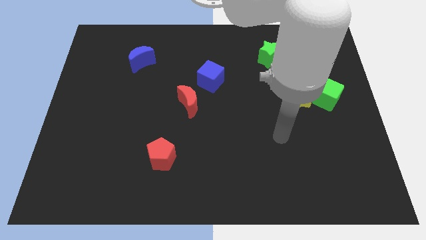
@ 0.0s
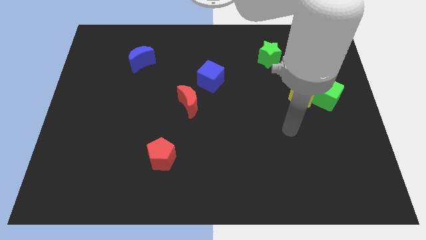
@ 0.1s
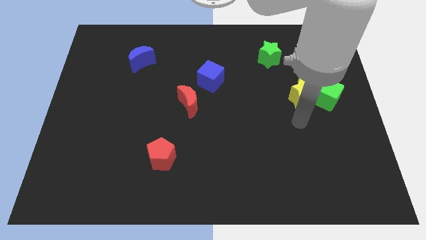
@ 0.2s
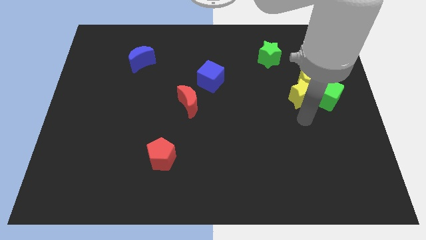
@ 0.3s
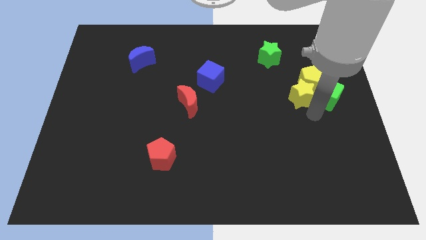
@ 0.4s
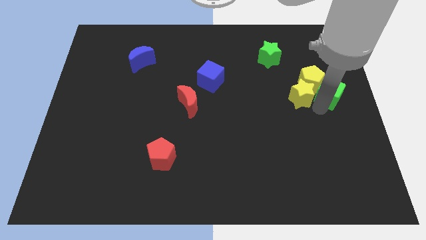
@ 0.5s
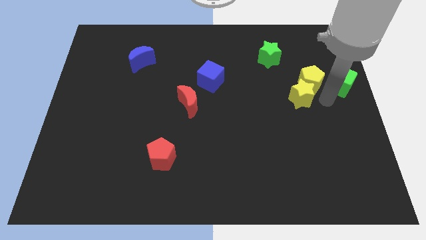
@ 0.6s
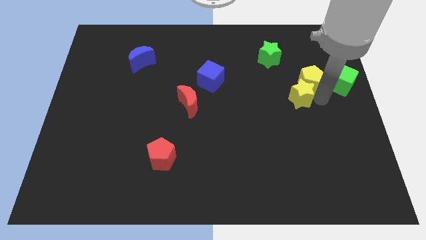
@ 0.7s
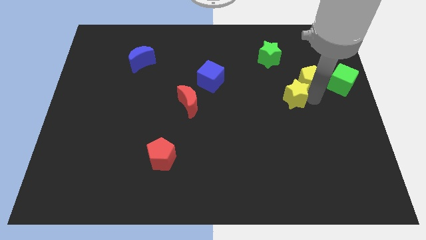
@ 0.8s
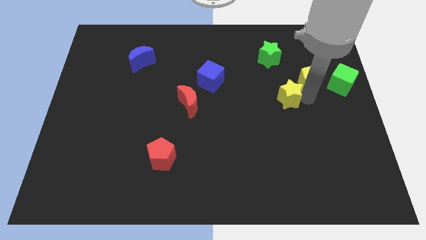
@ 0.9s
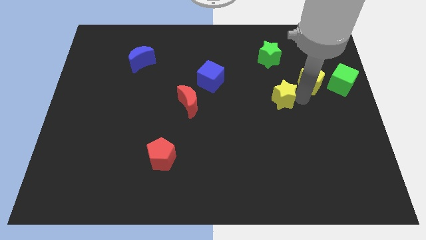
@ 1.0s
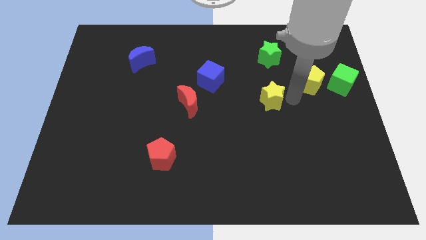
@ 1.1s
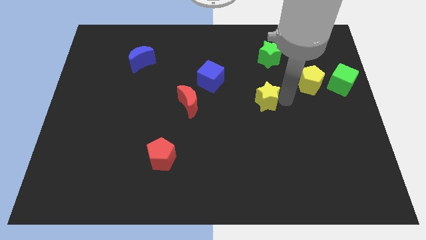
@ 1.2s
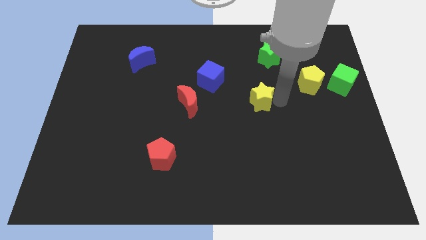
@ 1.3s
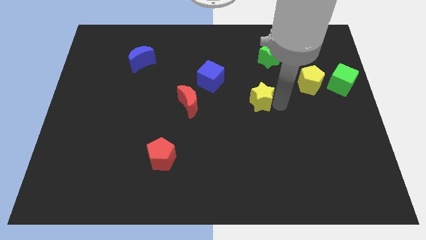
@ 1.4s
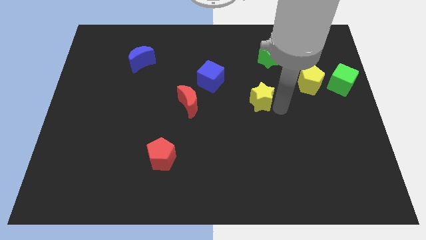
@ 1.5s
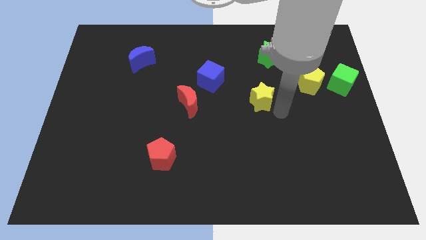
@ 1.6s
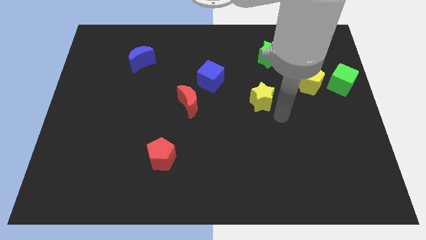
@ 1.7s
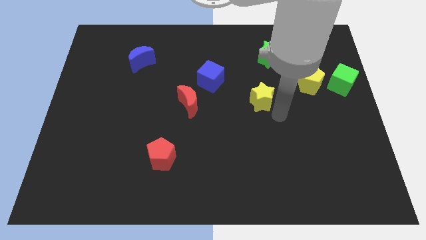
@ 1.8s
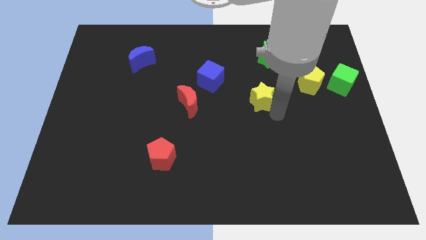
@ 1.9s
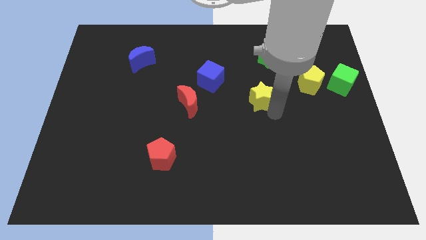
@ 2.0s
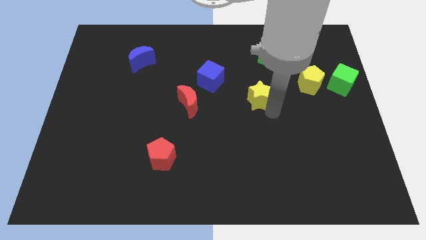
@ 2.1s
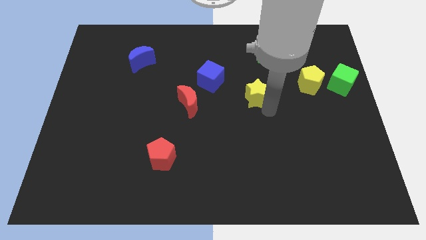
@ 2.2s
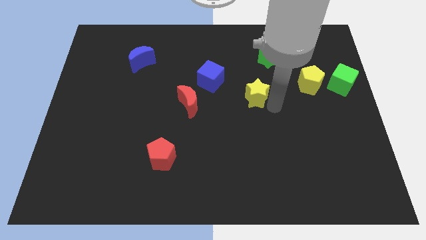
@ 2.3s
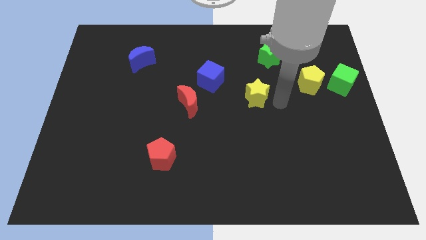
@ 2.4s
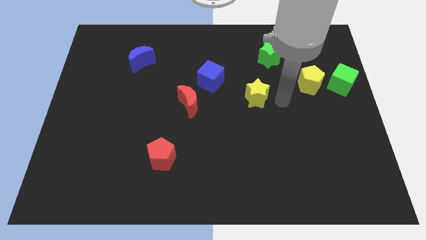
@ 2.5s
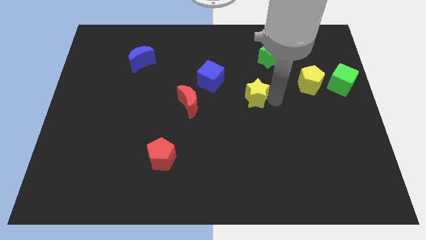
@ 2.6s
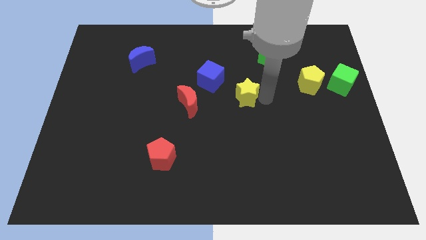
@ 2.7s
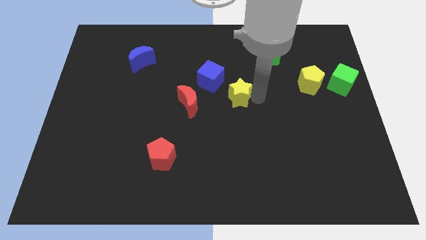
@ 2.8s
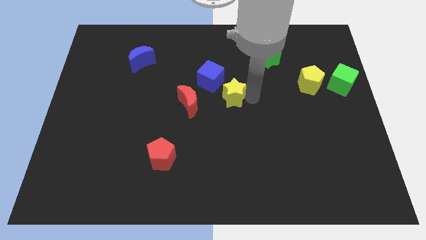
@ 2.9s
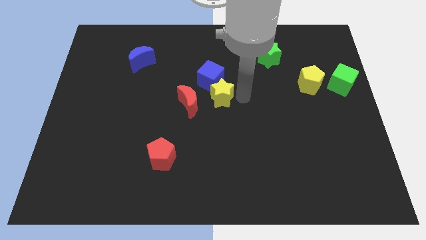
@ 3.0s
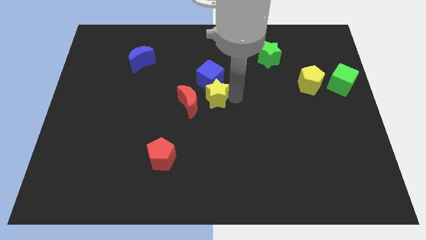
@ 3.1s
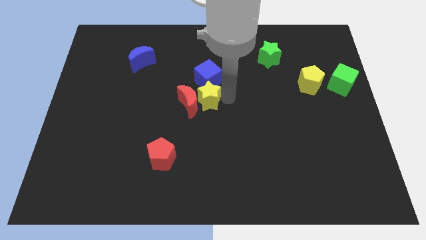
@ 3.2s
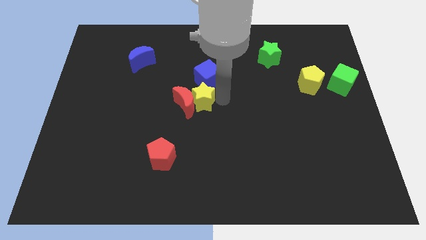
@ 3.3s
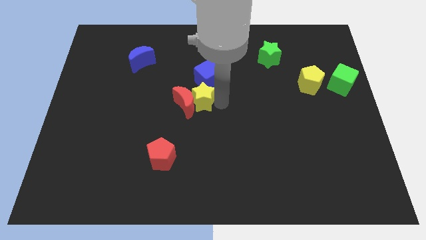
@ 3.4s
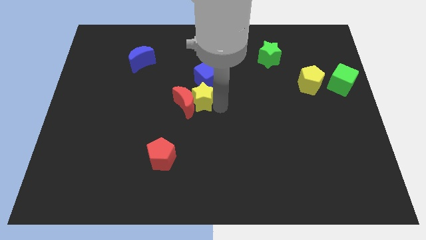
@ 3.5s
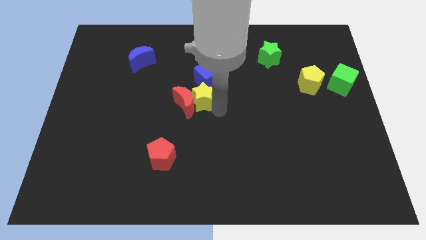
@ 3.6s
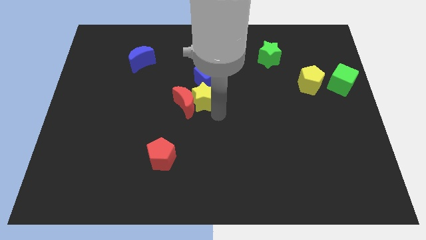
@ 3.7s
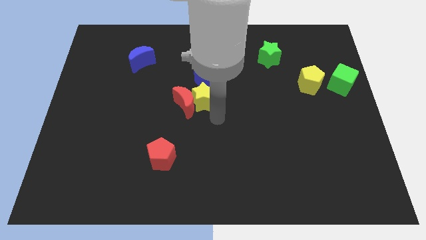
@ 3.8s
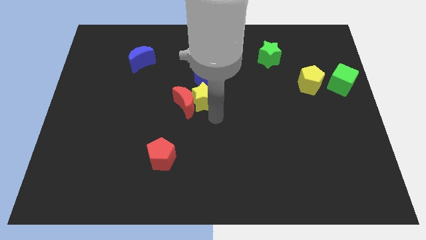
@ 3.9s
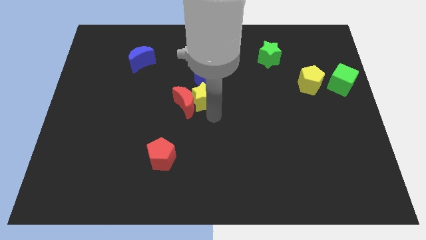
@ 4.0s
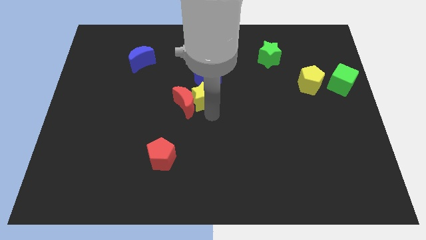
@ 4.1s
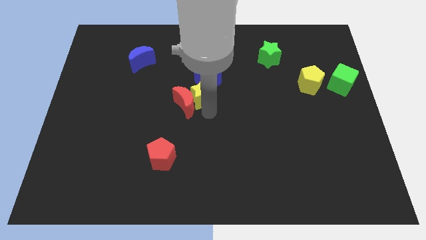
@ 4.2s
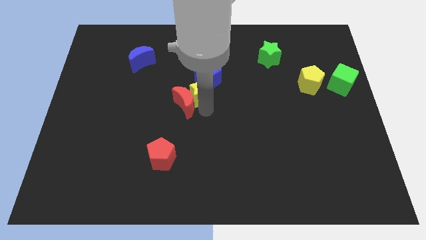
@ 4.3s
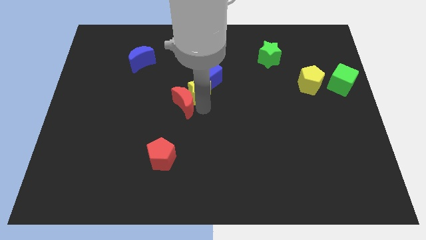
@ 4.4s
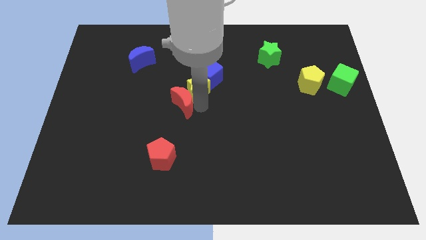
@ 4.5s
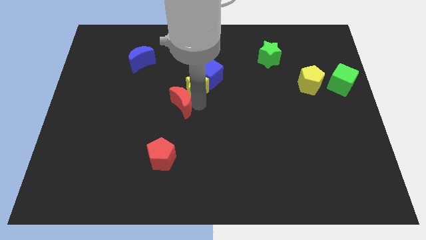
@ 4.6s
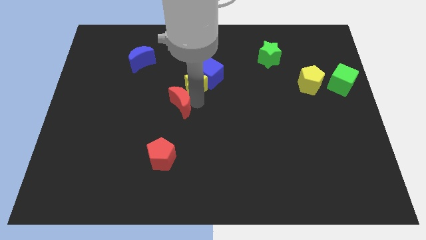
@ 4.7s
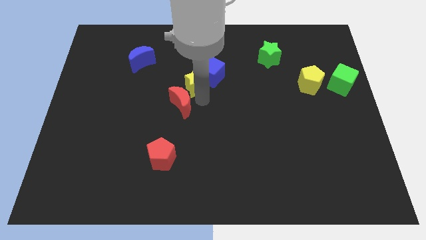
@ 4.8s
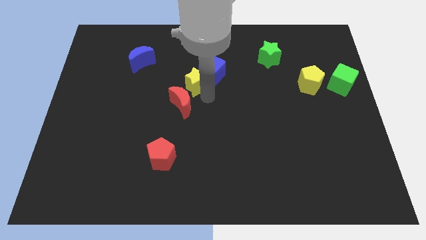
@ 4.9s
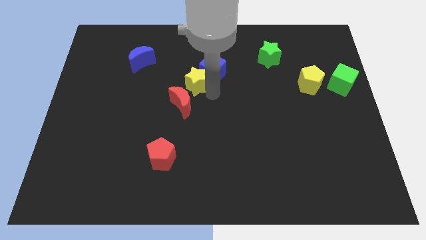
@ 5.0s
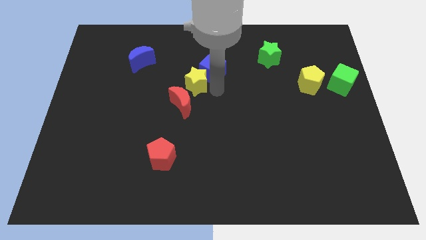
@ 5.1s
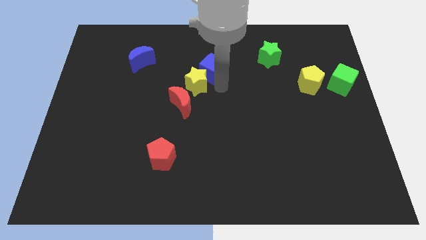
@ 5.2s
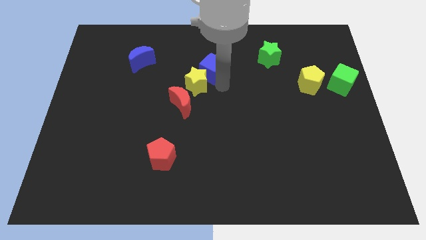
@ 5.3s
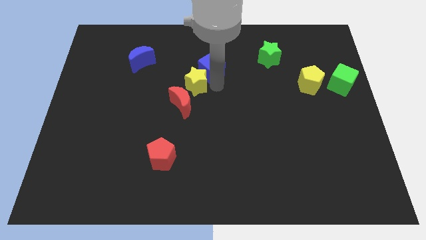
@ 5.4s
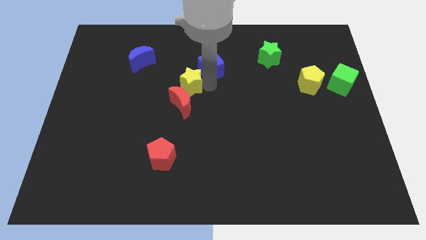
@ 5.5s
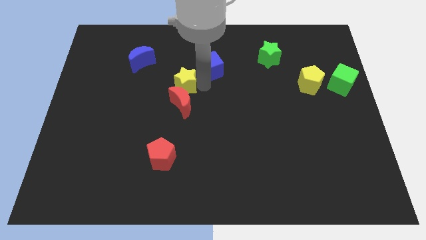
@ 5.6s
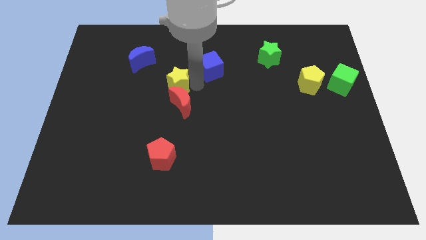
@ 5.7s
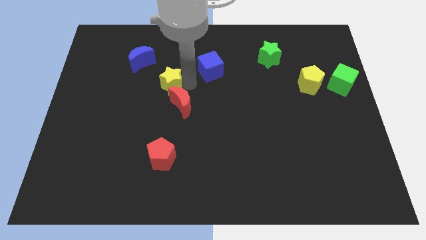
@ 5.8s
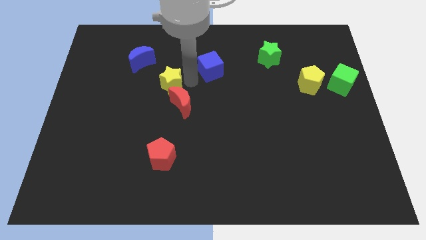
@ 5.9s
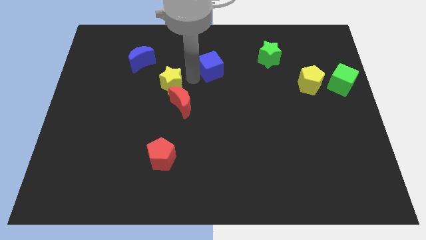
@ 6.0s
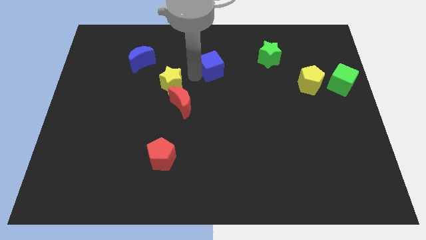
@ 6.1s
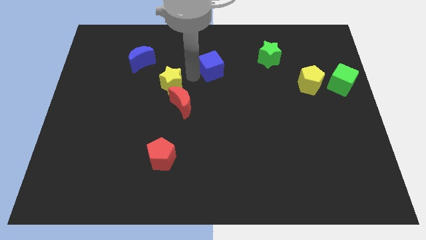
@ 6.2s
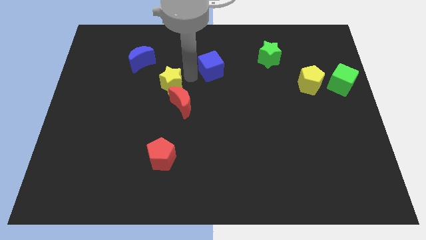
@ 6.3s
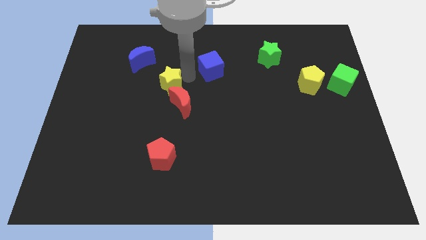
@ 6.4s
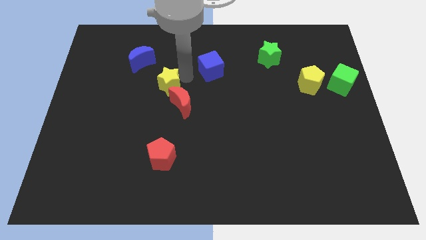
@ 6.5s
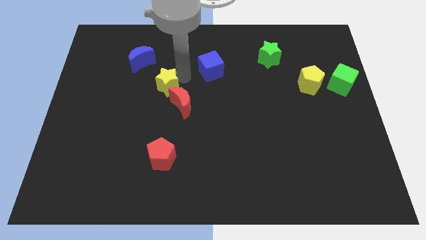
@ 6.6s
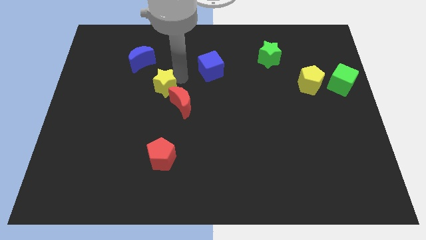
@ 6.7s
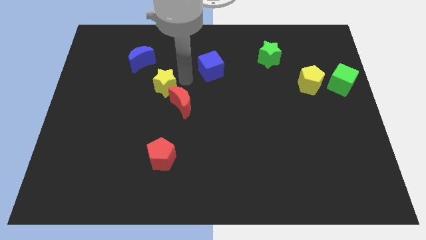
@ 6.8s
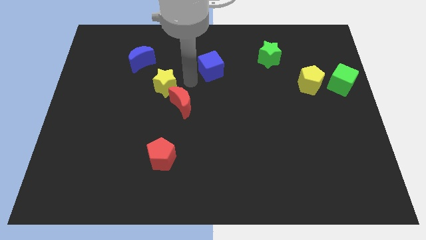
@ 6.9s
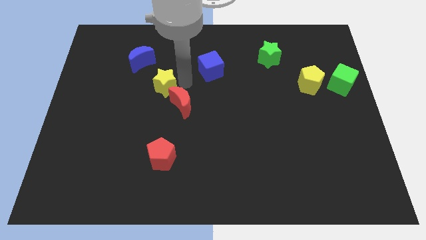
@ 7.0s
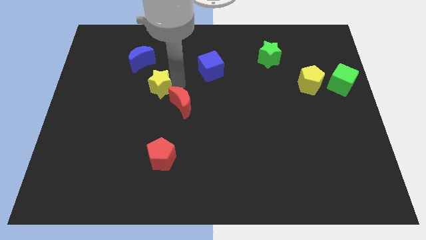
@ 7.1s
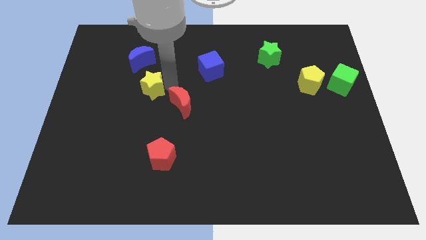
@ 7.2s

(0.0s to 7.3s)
push the yellow star to the bottom side of the blue moon

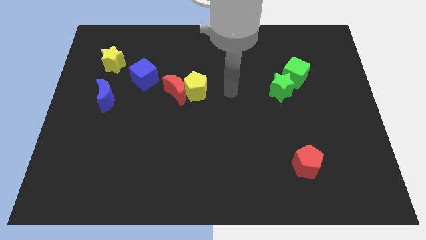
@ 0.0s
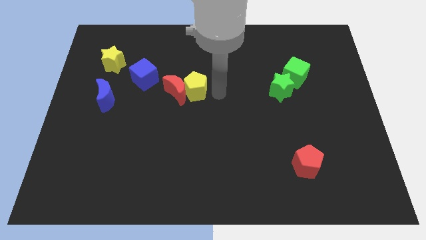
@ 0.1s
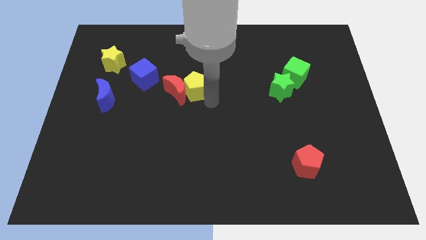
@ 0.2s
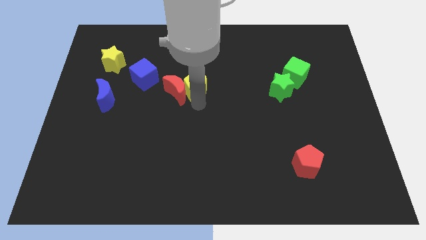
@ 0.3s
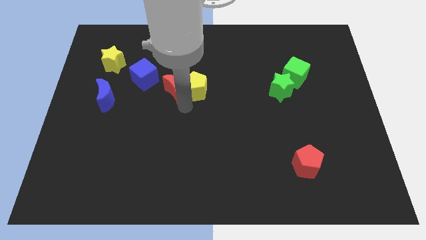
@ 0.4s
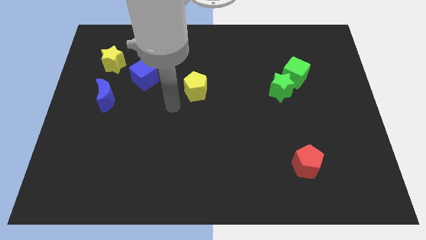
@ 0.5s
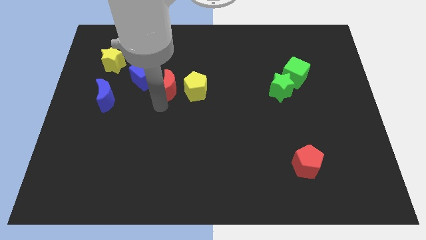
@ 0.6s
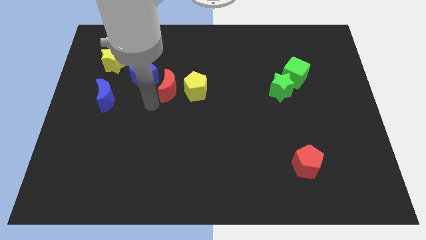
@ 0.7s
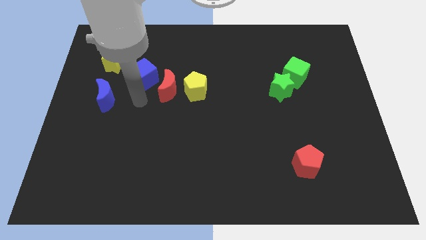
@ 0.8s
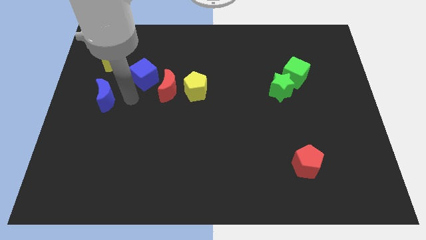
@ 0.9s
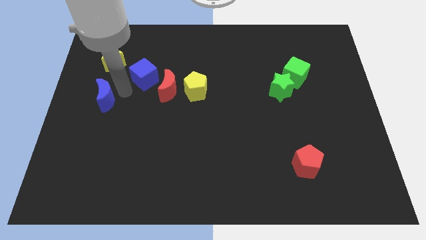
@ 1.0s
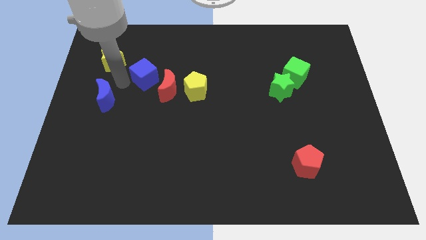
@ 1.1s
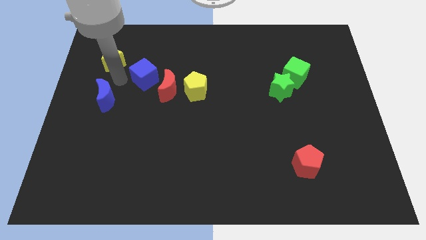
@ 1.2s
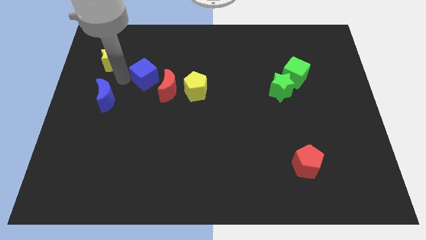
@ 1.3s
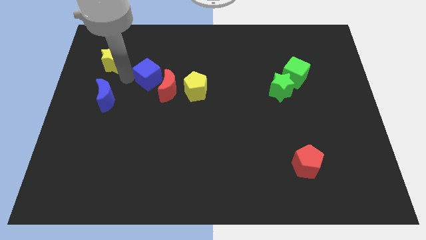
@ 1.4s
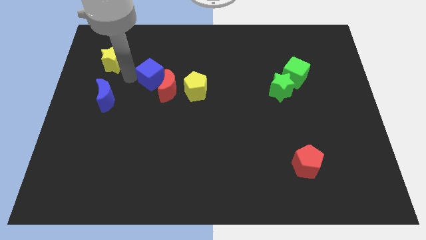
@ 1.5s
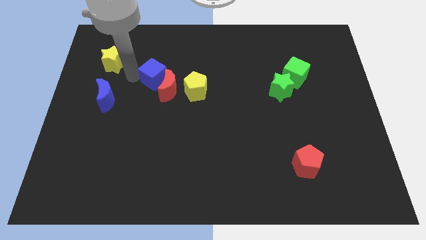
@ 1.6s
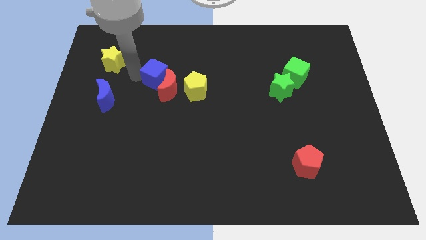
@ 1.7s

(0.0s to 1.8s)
push the blue cube to the top left of the yellow pentagon
